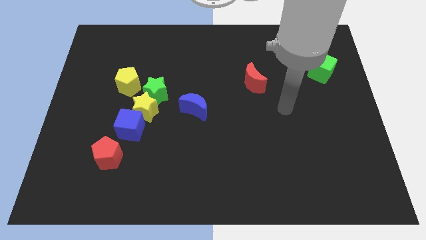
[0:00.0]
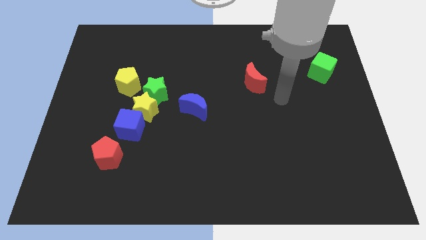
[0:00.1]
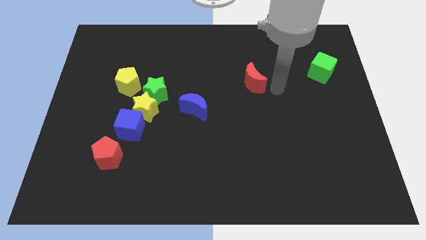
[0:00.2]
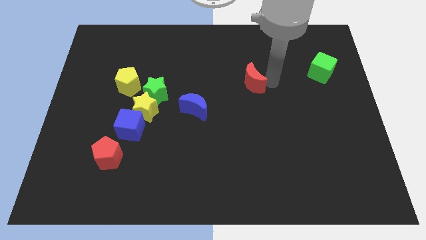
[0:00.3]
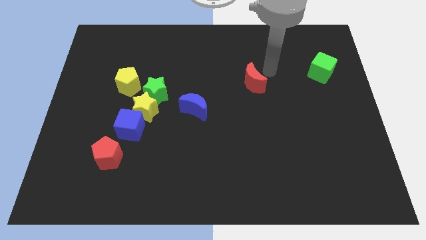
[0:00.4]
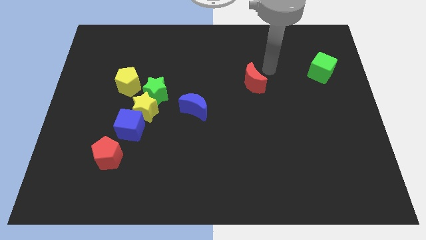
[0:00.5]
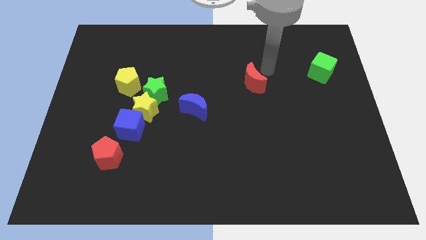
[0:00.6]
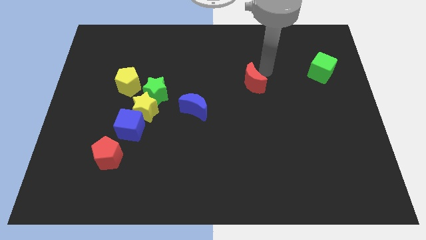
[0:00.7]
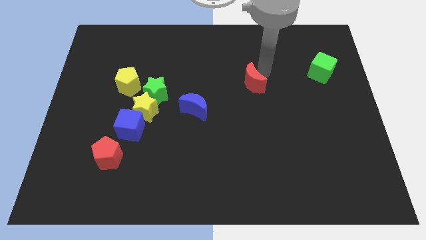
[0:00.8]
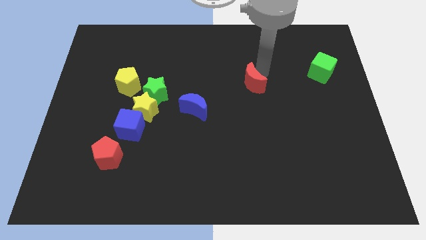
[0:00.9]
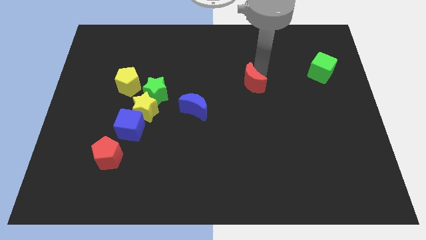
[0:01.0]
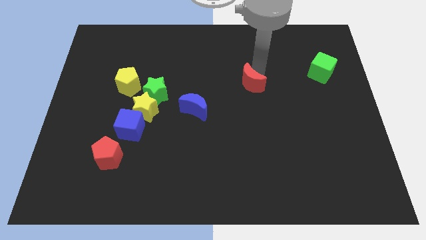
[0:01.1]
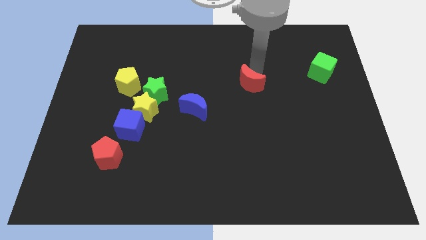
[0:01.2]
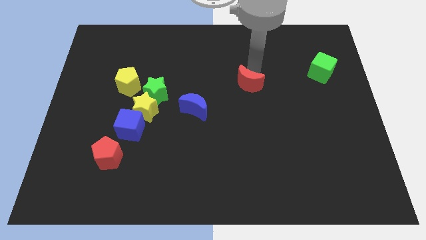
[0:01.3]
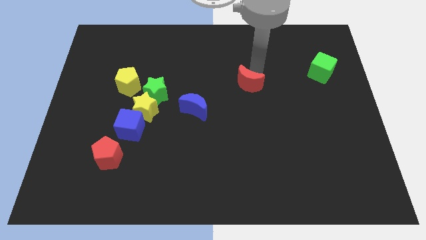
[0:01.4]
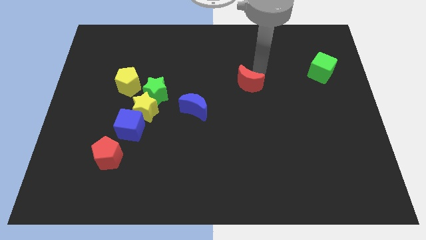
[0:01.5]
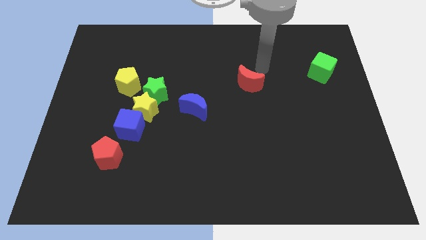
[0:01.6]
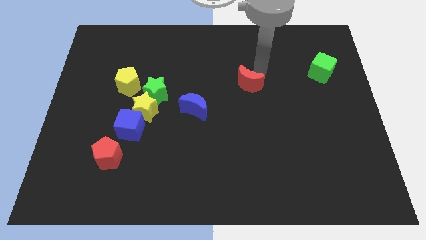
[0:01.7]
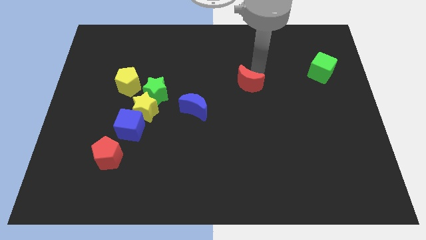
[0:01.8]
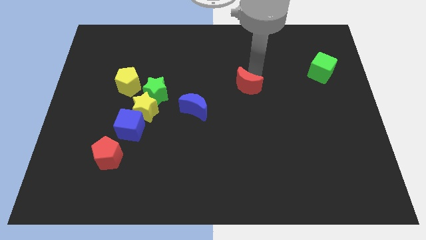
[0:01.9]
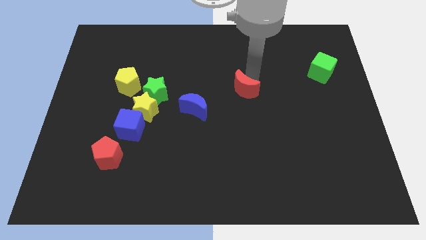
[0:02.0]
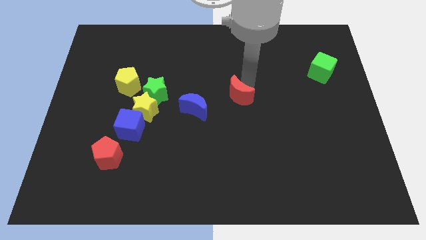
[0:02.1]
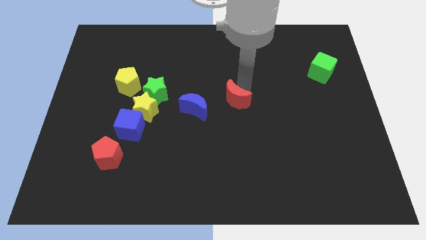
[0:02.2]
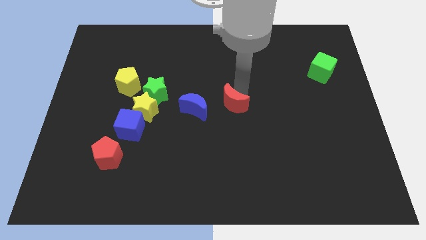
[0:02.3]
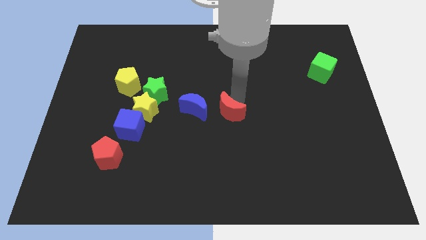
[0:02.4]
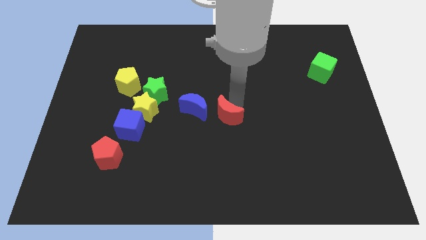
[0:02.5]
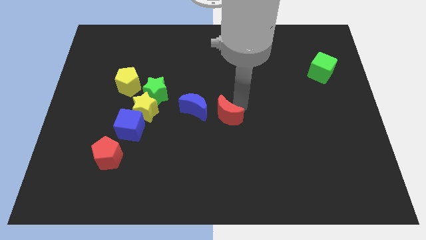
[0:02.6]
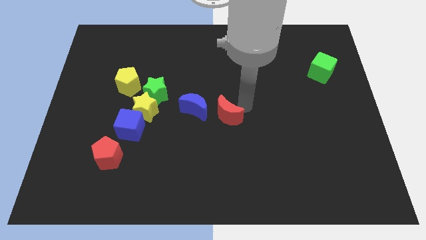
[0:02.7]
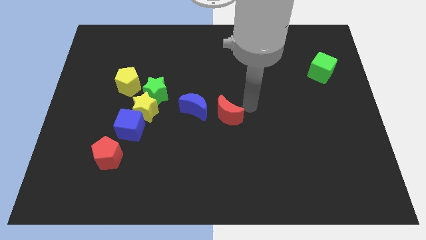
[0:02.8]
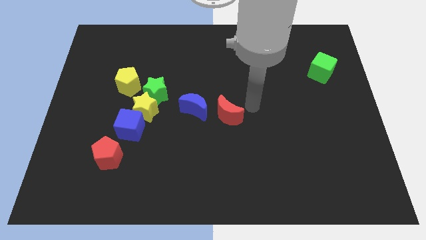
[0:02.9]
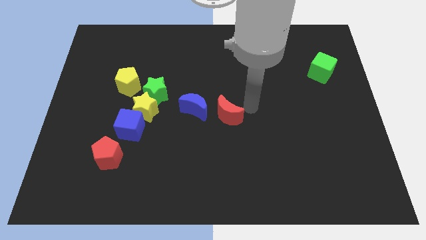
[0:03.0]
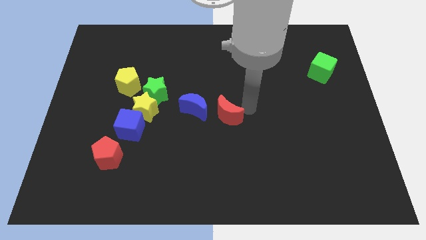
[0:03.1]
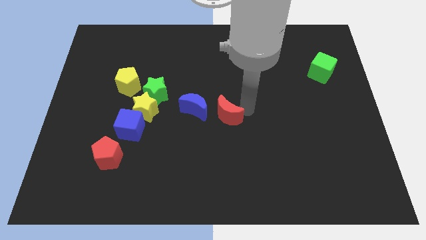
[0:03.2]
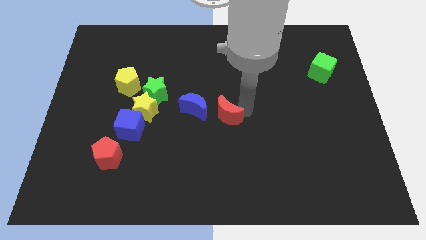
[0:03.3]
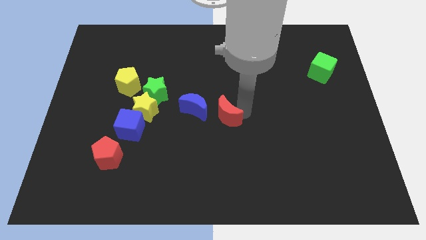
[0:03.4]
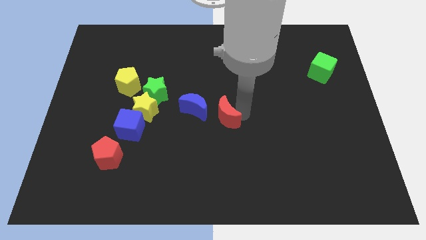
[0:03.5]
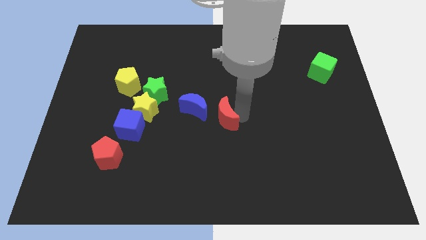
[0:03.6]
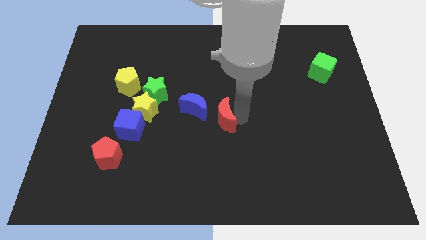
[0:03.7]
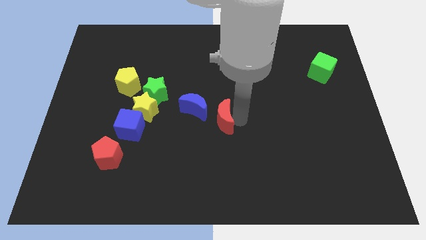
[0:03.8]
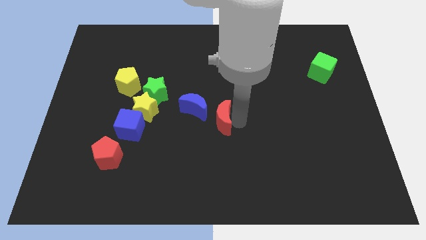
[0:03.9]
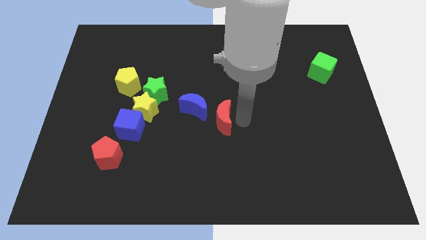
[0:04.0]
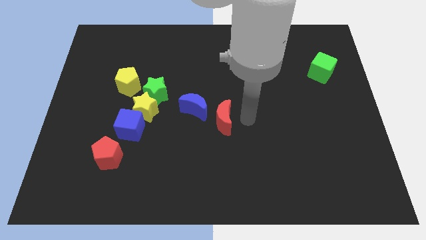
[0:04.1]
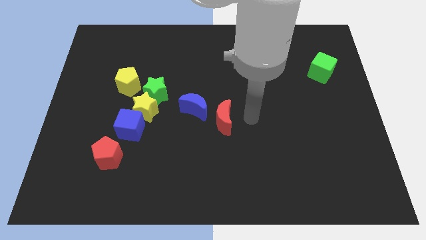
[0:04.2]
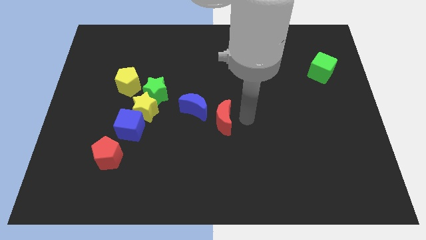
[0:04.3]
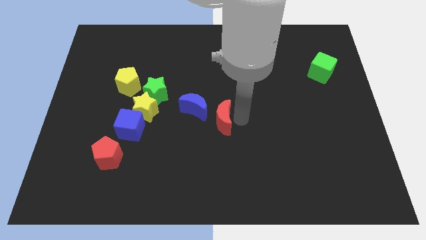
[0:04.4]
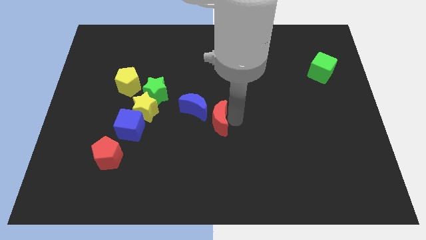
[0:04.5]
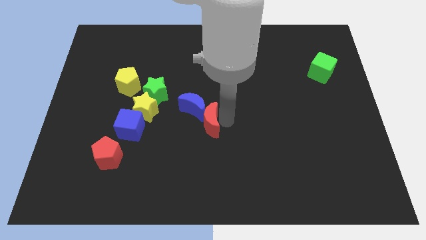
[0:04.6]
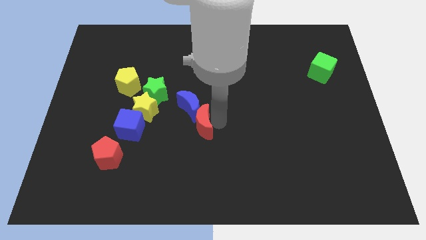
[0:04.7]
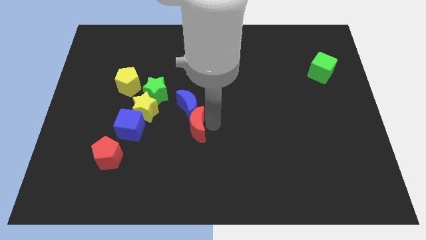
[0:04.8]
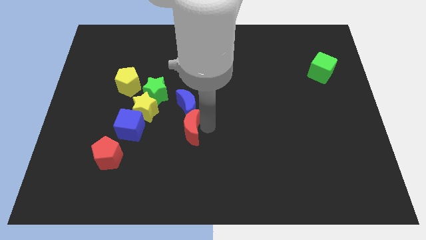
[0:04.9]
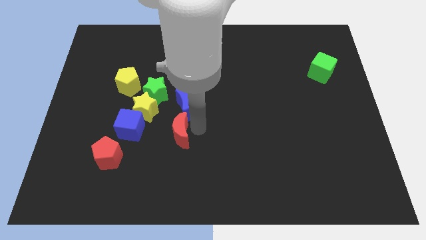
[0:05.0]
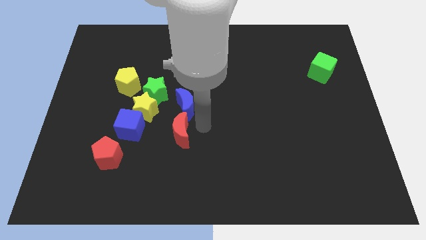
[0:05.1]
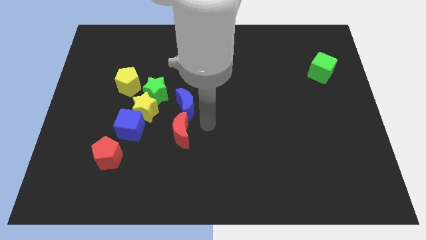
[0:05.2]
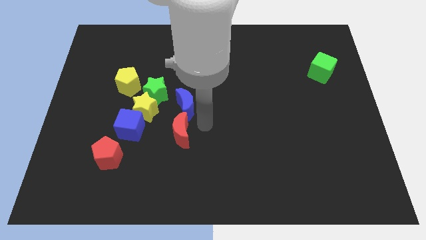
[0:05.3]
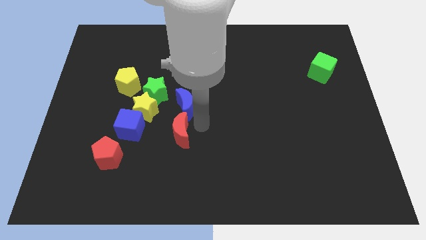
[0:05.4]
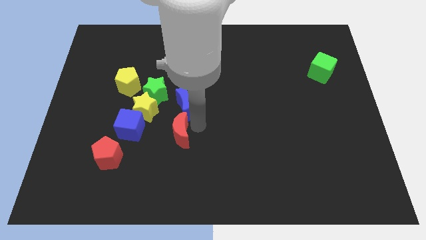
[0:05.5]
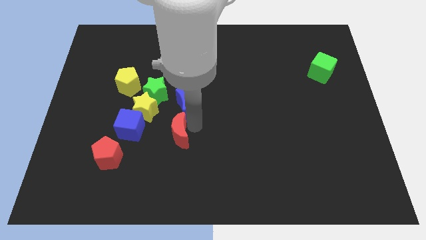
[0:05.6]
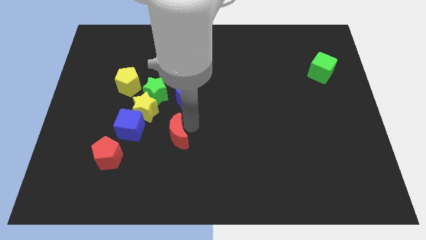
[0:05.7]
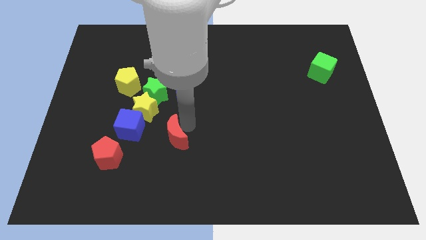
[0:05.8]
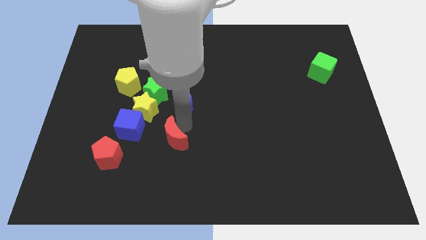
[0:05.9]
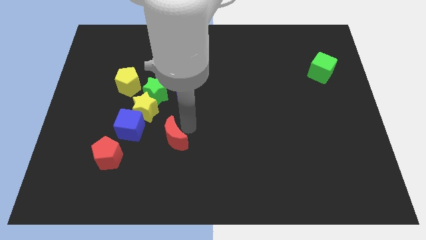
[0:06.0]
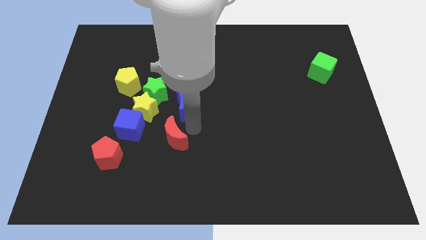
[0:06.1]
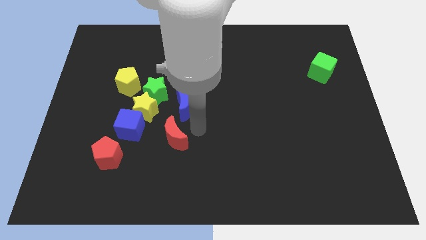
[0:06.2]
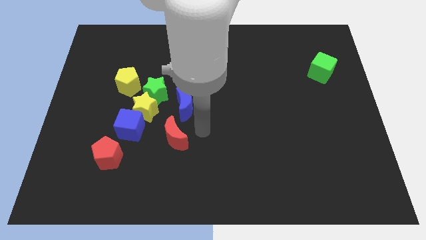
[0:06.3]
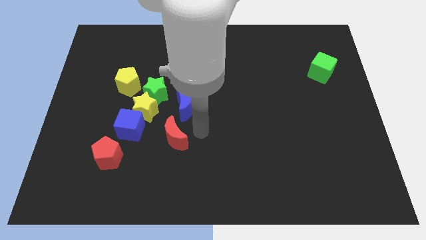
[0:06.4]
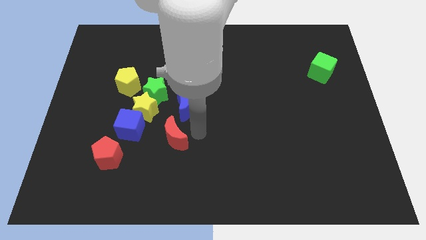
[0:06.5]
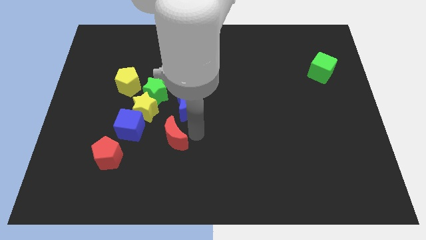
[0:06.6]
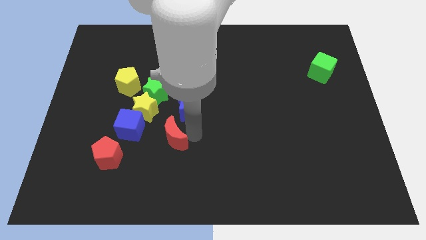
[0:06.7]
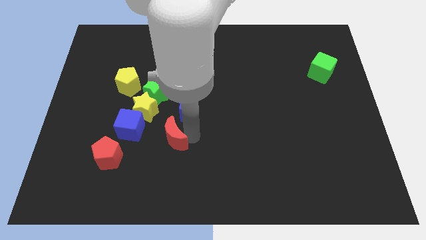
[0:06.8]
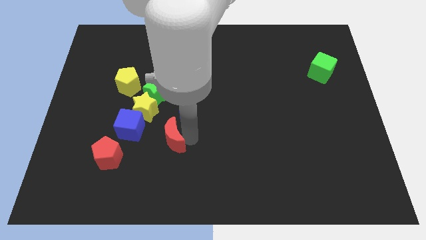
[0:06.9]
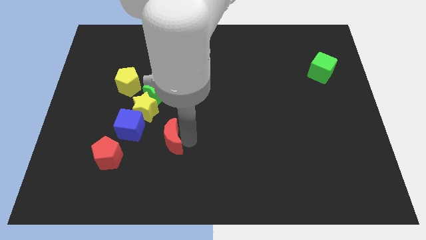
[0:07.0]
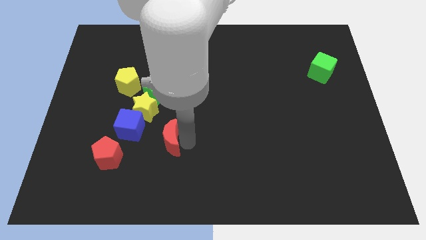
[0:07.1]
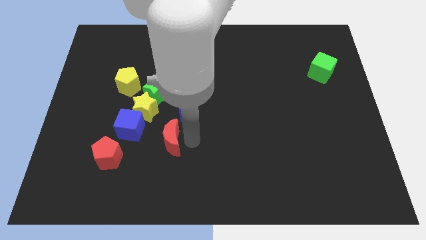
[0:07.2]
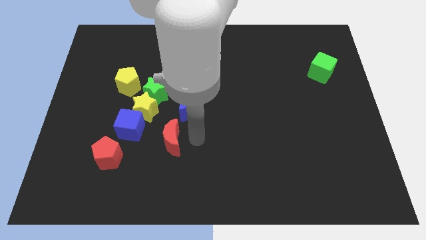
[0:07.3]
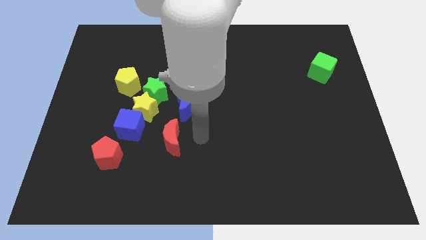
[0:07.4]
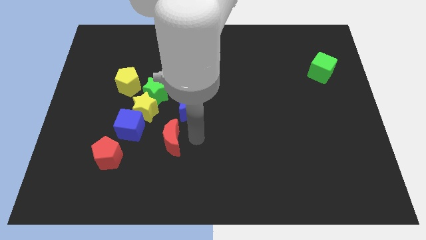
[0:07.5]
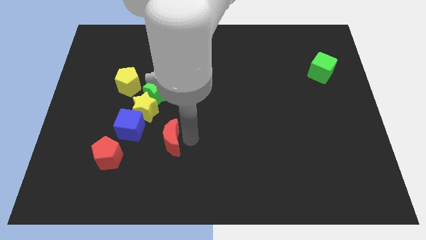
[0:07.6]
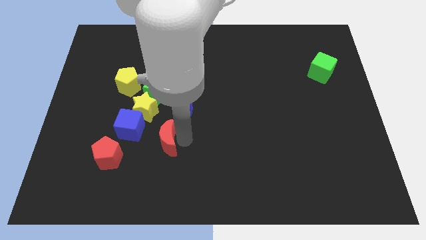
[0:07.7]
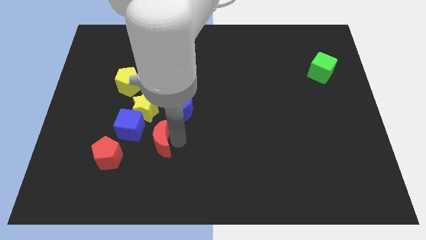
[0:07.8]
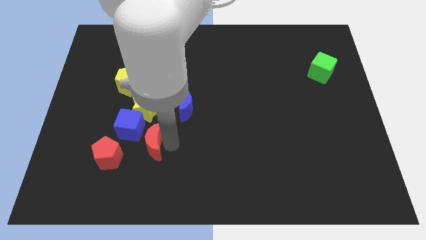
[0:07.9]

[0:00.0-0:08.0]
slide the red moon to the top right of the red pentagon

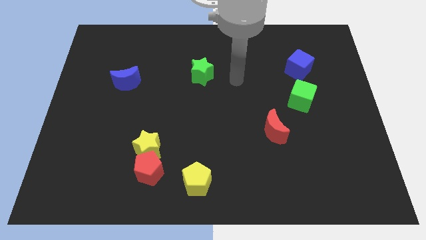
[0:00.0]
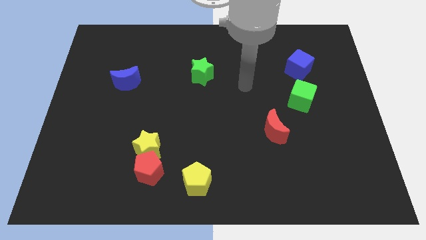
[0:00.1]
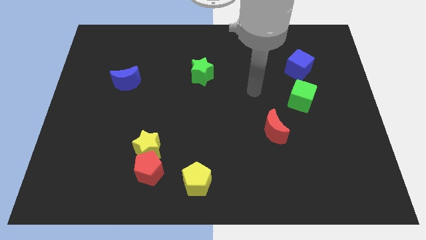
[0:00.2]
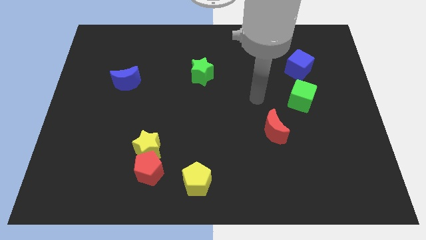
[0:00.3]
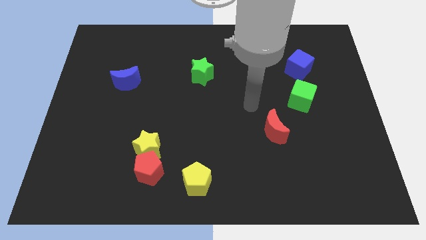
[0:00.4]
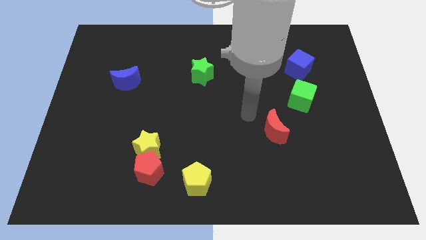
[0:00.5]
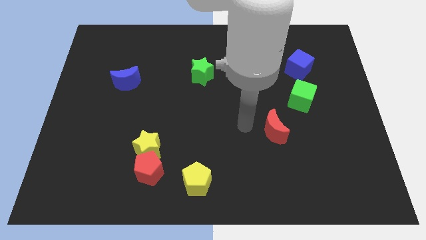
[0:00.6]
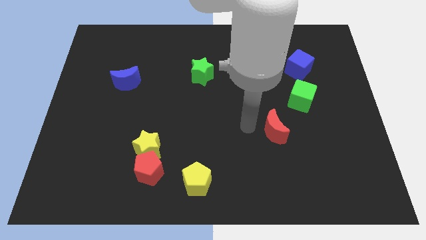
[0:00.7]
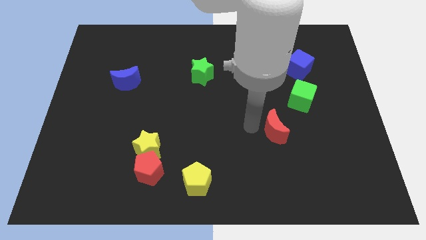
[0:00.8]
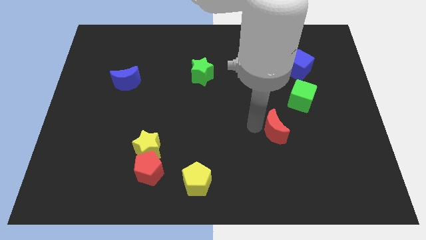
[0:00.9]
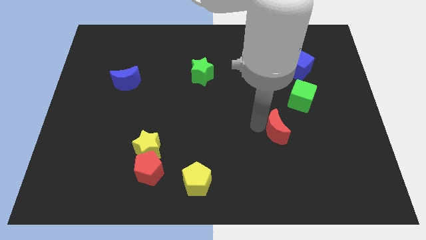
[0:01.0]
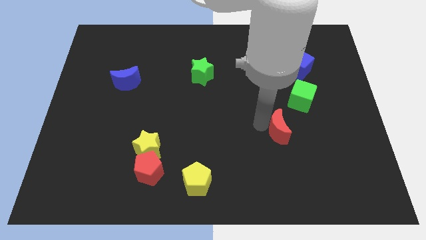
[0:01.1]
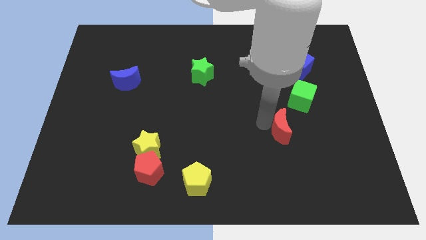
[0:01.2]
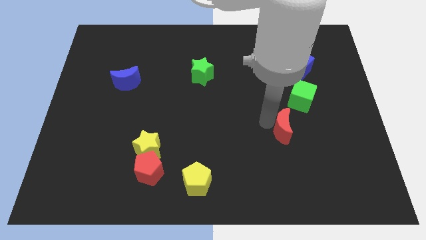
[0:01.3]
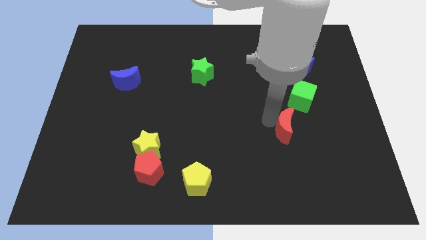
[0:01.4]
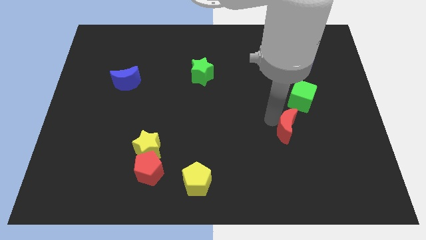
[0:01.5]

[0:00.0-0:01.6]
move the red moon to the bottom side of the green cube
